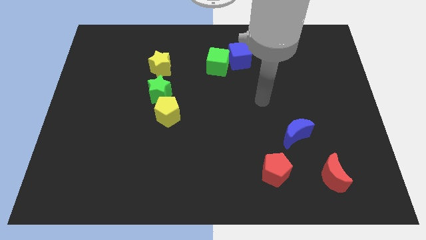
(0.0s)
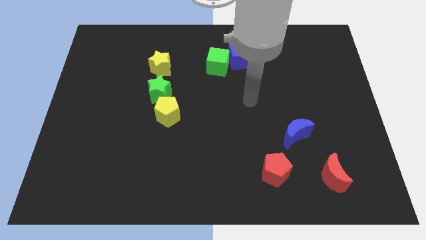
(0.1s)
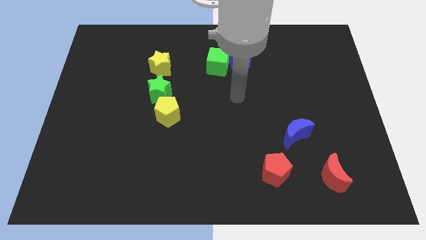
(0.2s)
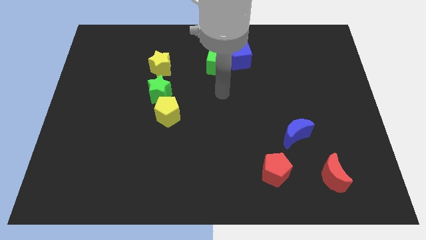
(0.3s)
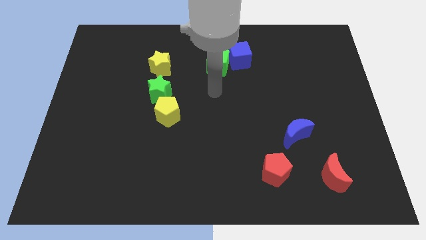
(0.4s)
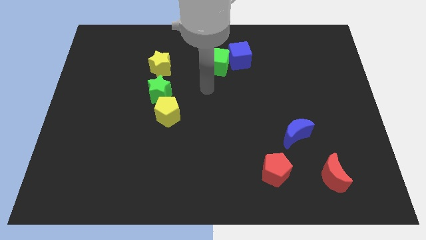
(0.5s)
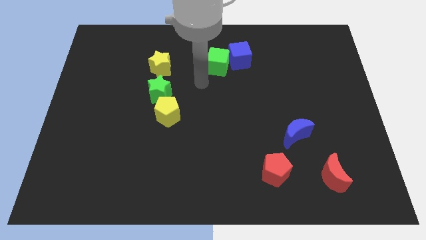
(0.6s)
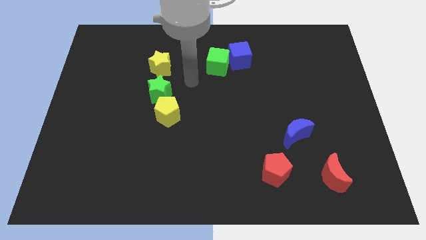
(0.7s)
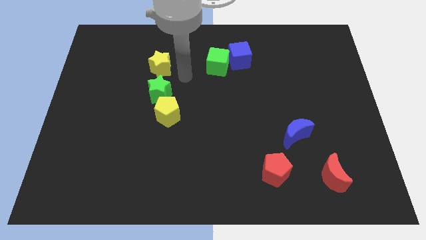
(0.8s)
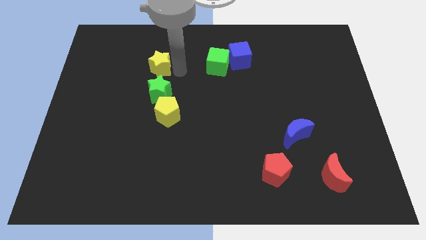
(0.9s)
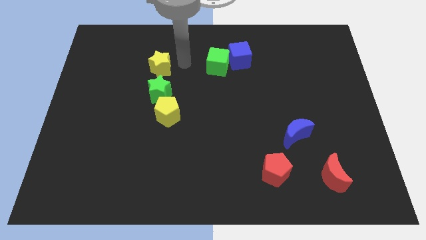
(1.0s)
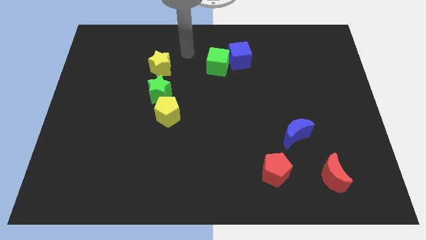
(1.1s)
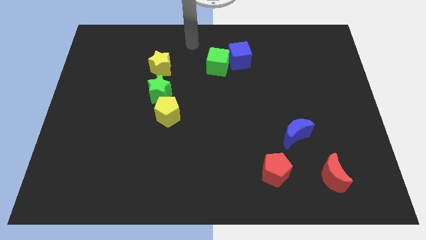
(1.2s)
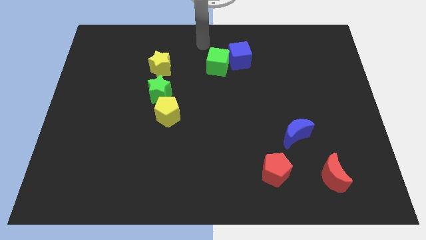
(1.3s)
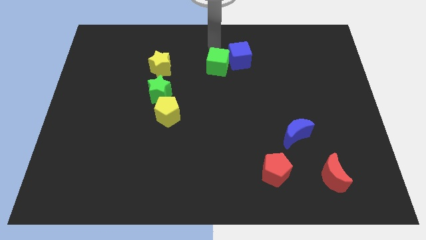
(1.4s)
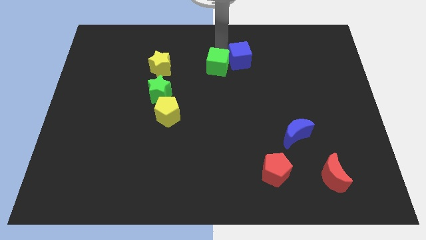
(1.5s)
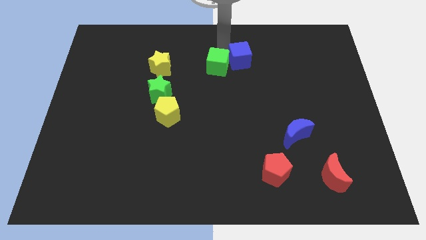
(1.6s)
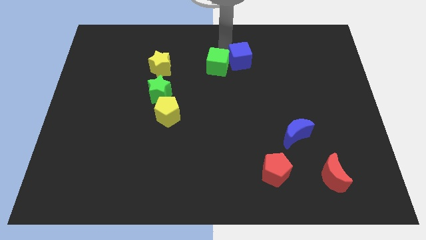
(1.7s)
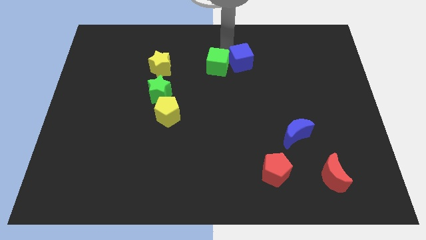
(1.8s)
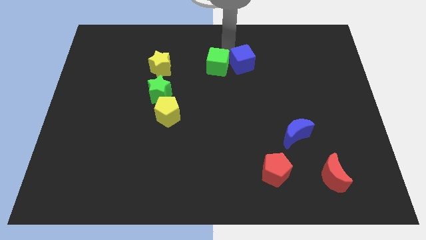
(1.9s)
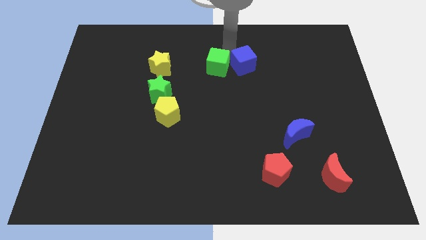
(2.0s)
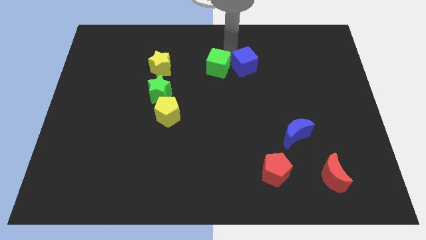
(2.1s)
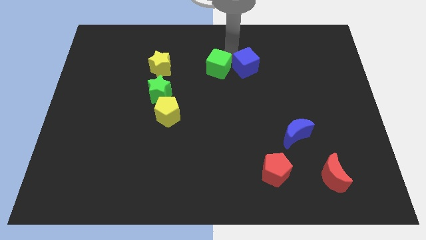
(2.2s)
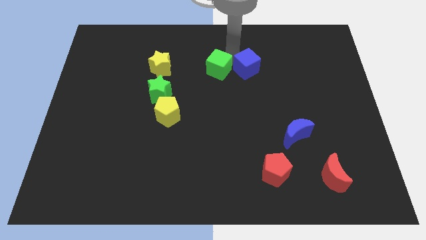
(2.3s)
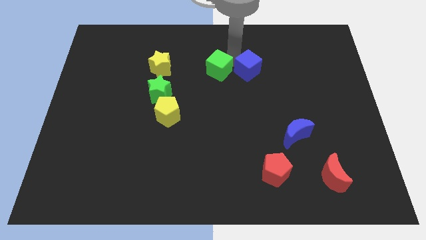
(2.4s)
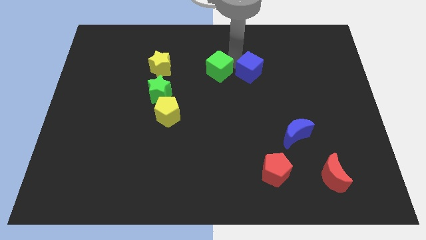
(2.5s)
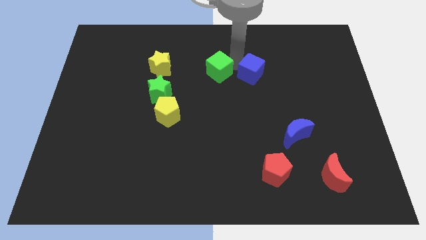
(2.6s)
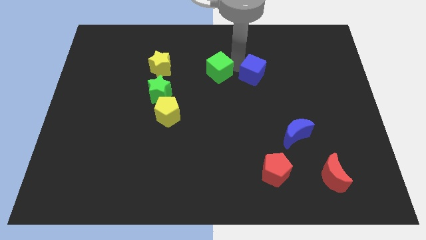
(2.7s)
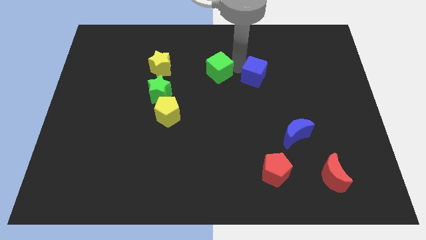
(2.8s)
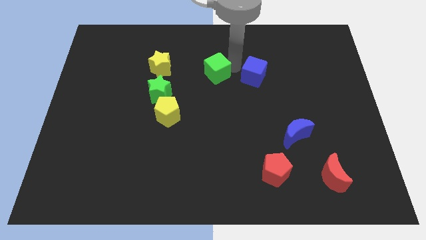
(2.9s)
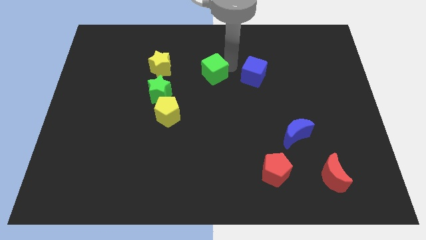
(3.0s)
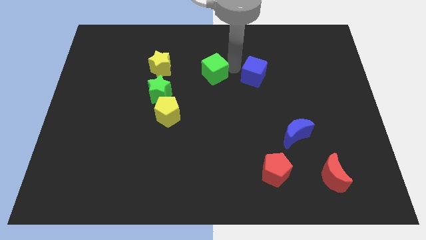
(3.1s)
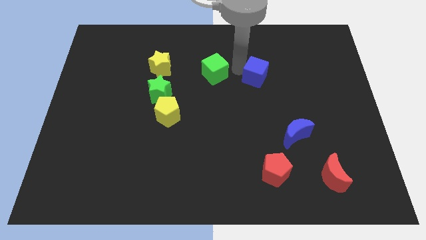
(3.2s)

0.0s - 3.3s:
slide the blue cube down and then to the right slightly

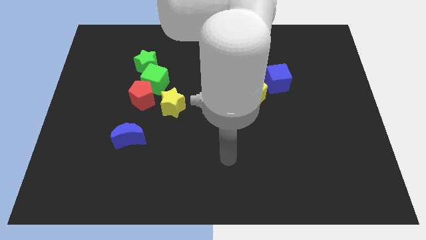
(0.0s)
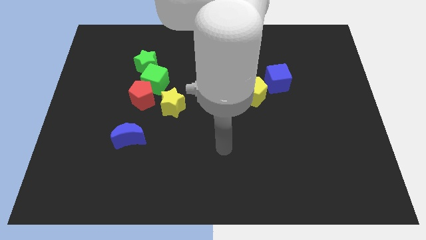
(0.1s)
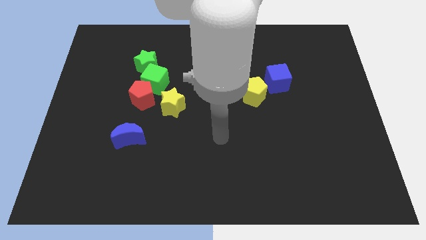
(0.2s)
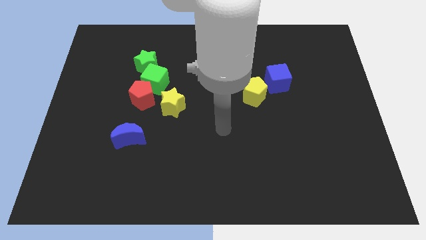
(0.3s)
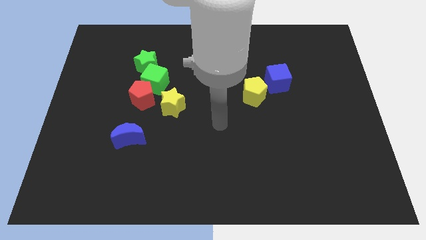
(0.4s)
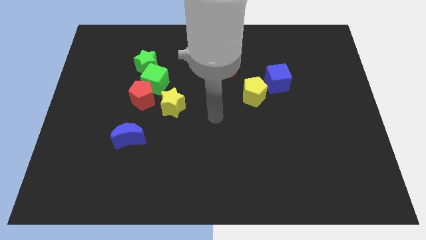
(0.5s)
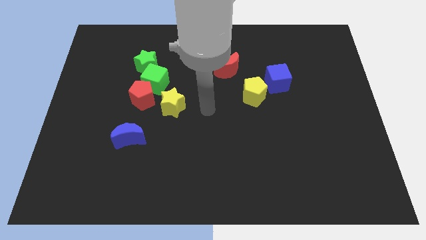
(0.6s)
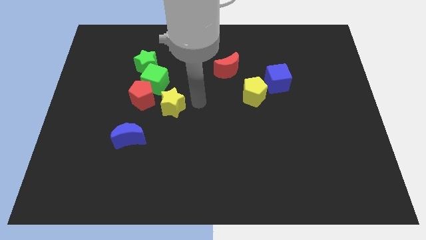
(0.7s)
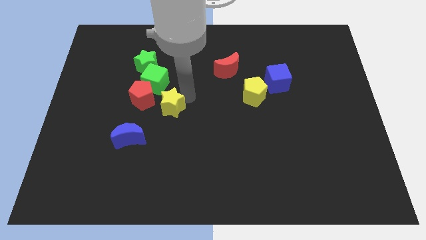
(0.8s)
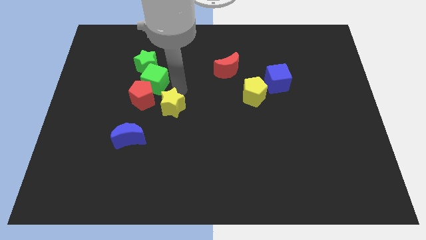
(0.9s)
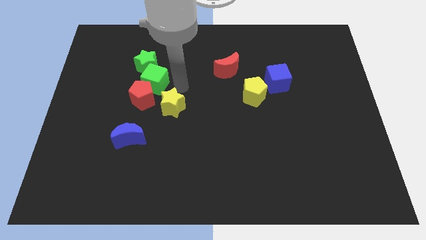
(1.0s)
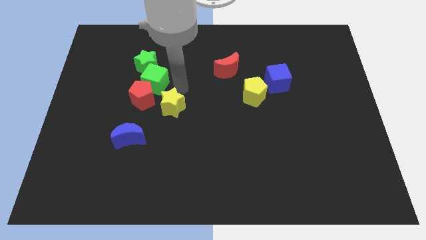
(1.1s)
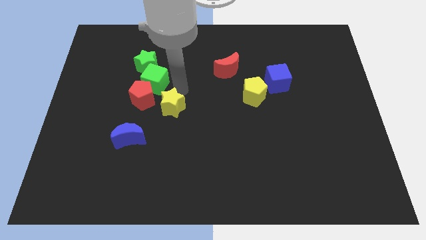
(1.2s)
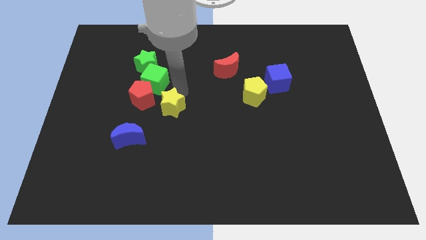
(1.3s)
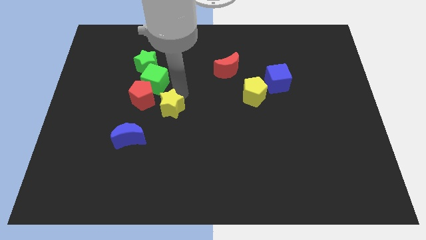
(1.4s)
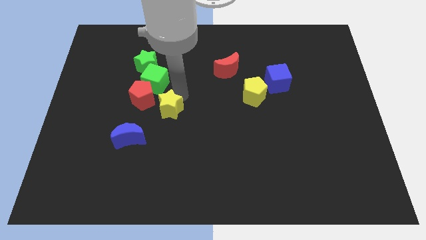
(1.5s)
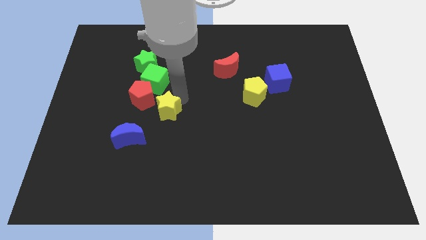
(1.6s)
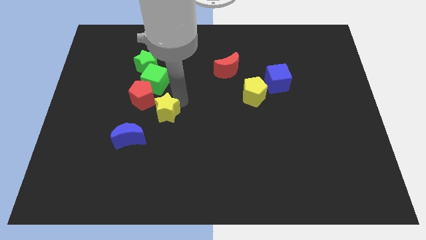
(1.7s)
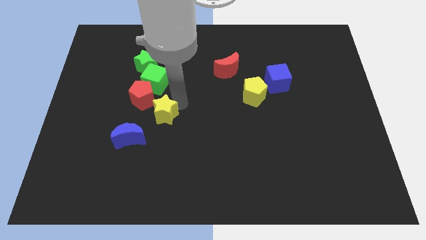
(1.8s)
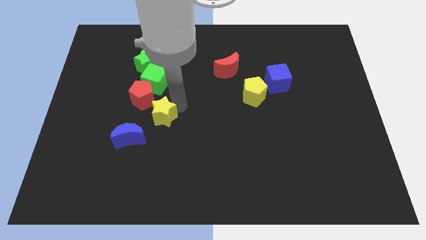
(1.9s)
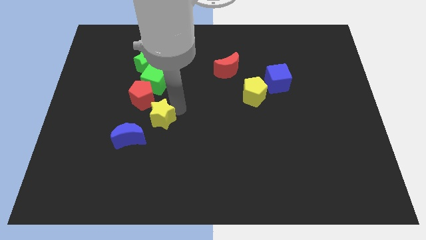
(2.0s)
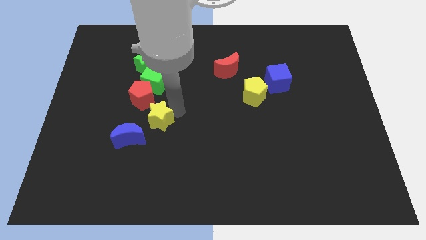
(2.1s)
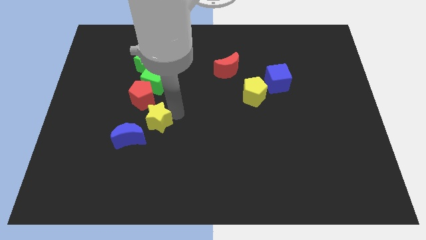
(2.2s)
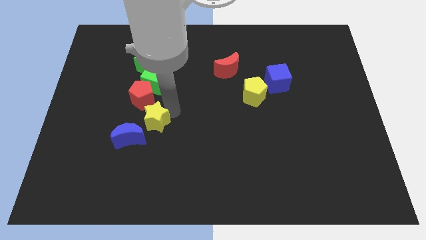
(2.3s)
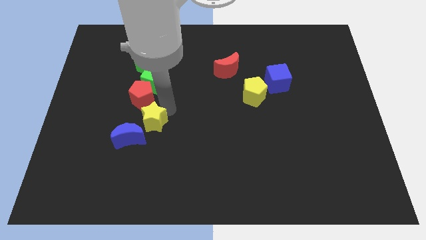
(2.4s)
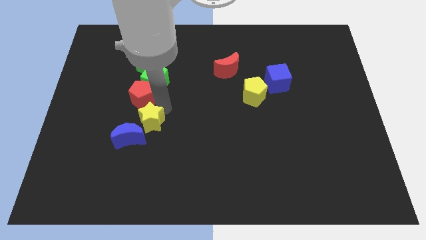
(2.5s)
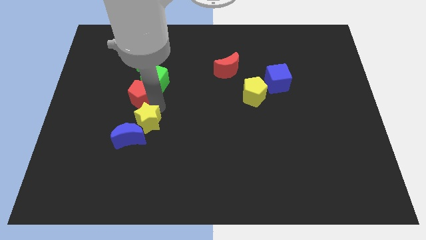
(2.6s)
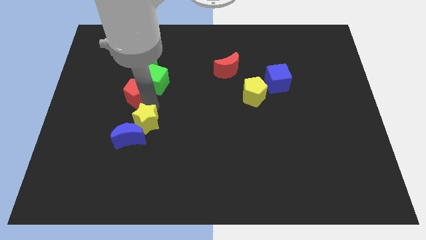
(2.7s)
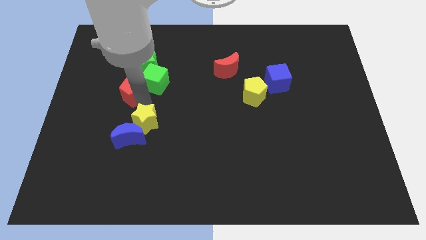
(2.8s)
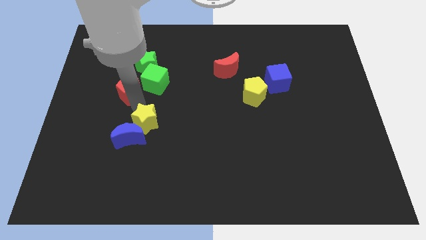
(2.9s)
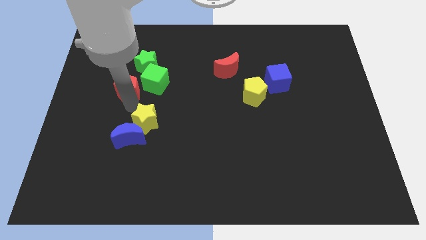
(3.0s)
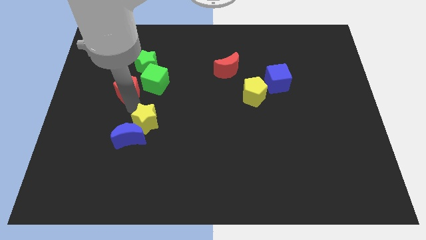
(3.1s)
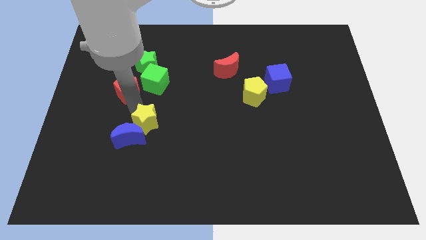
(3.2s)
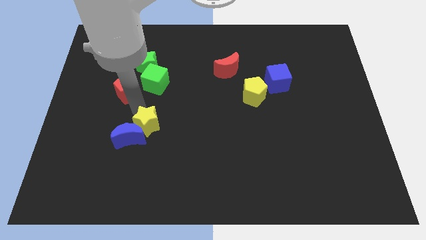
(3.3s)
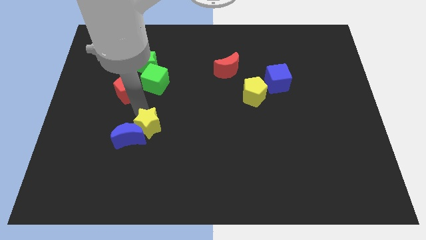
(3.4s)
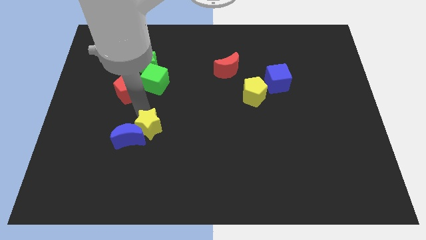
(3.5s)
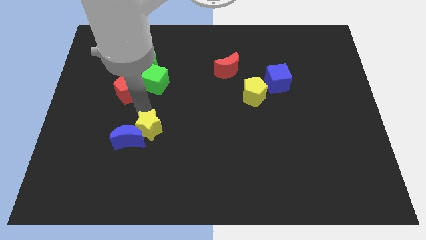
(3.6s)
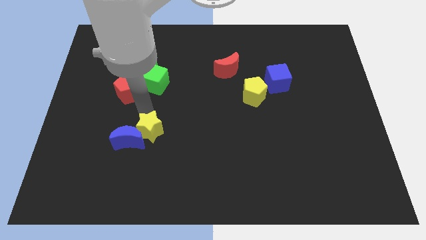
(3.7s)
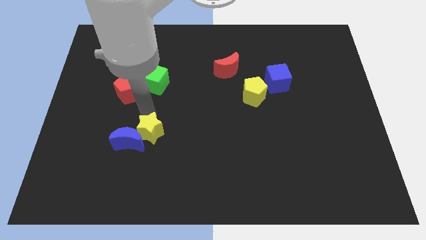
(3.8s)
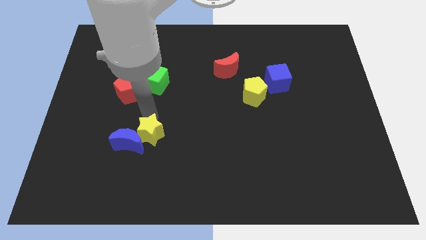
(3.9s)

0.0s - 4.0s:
move the yellow star down a bit

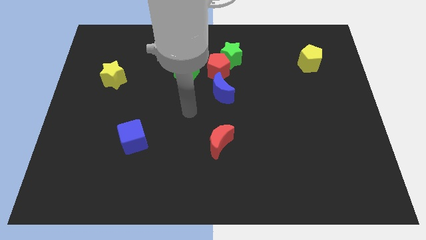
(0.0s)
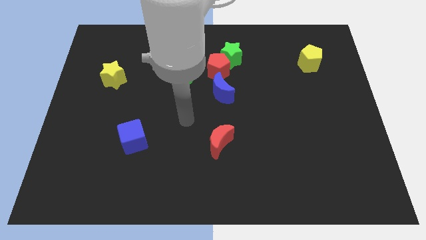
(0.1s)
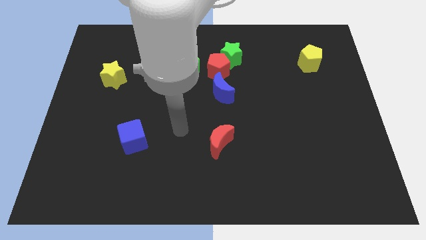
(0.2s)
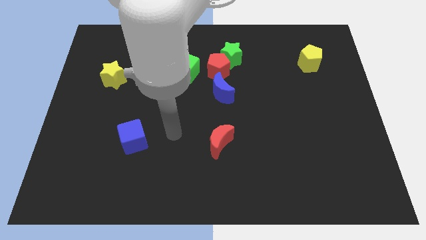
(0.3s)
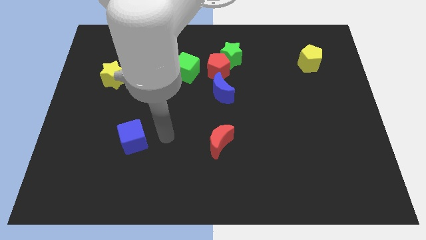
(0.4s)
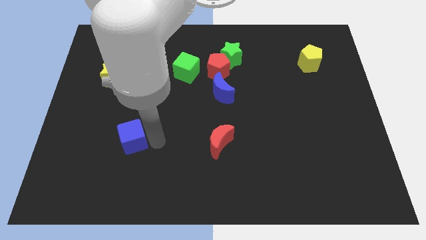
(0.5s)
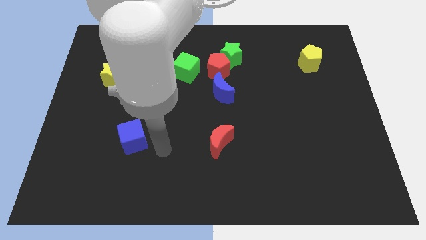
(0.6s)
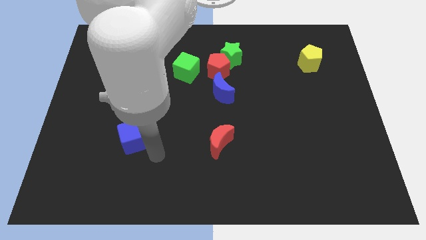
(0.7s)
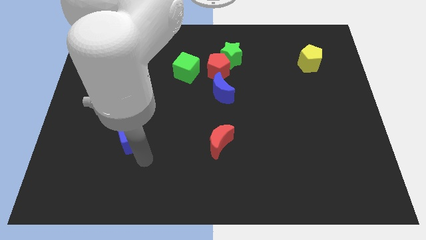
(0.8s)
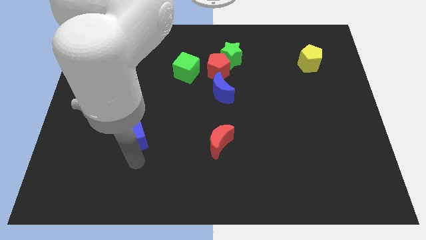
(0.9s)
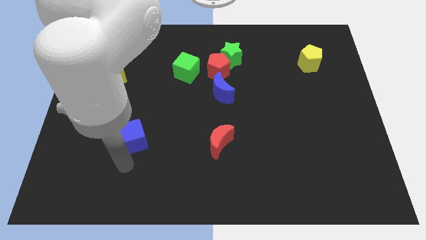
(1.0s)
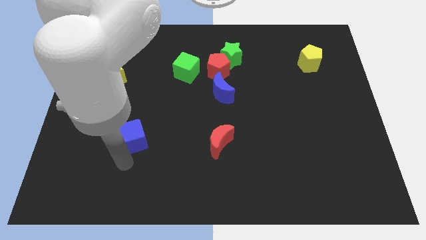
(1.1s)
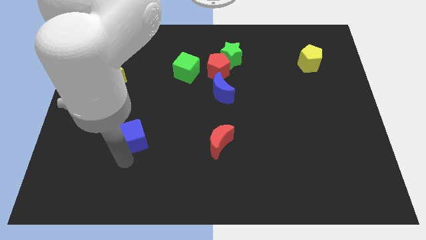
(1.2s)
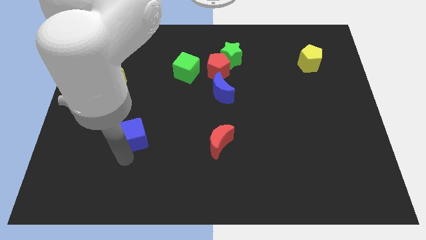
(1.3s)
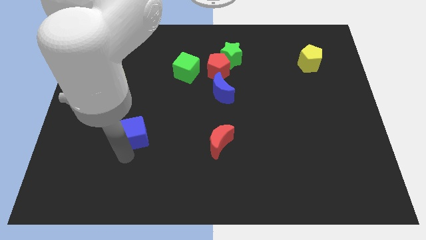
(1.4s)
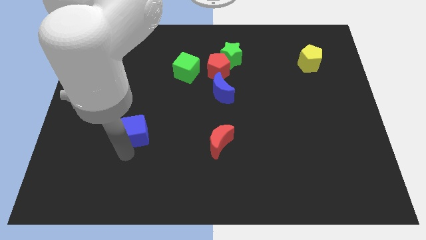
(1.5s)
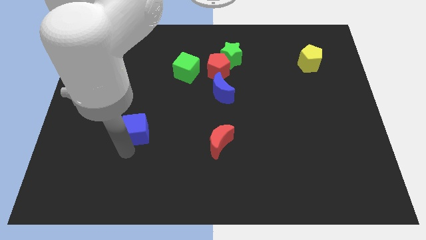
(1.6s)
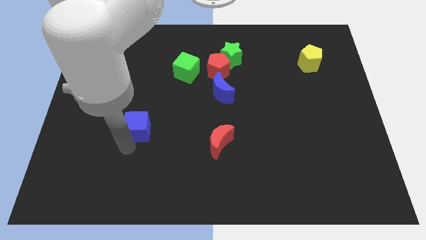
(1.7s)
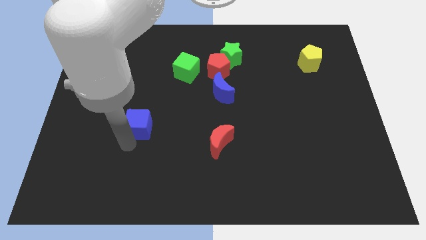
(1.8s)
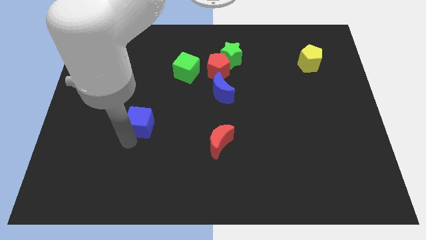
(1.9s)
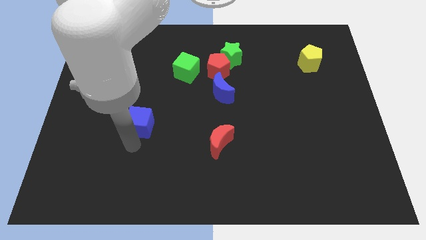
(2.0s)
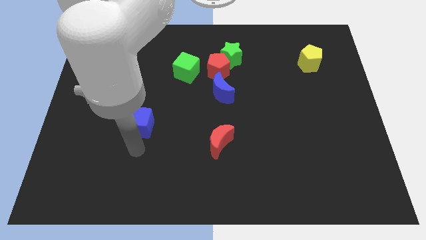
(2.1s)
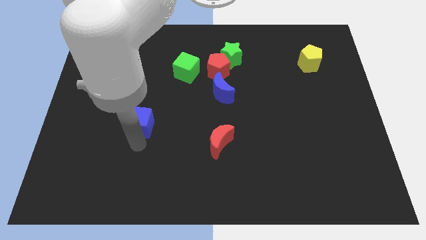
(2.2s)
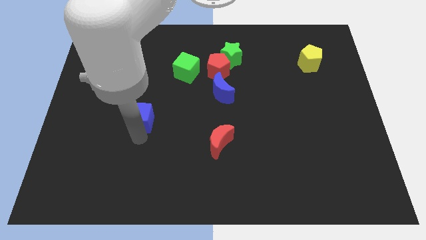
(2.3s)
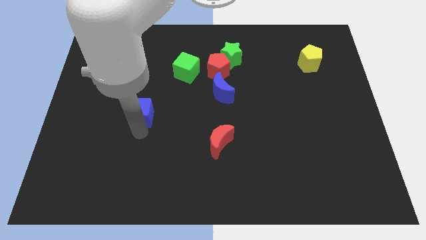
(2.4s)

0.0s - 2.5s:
move the blue cube up a little
